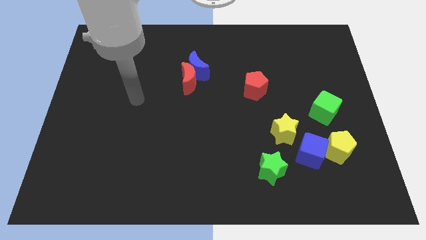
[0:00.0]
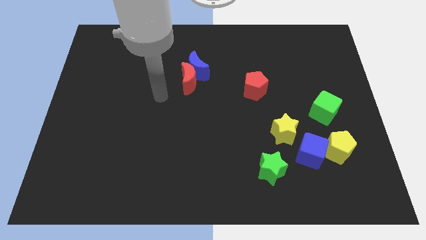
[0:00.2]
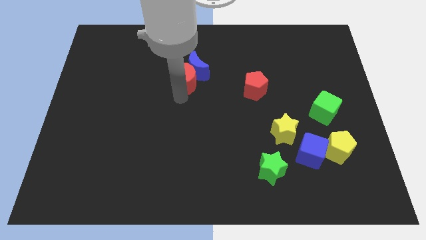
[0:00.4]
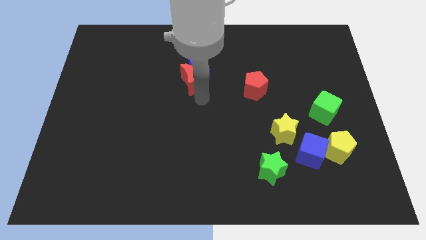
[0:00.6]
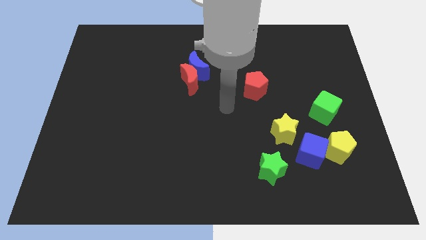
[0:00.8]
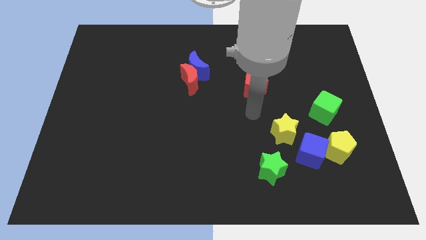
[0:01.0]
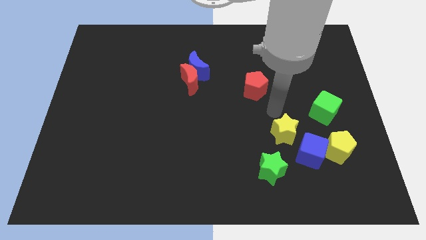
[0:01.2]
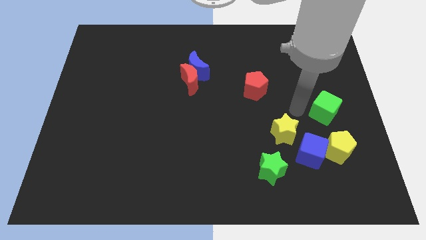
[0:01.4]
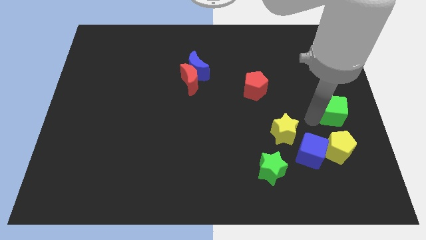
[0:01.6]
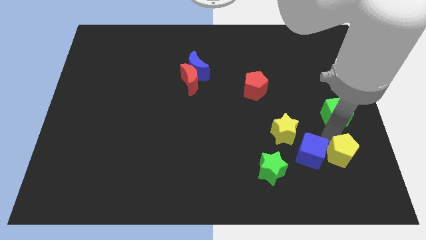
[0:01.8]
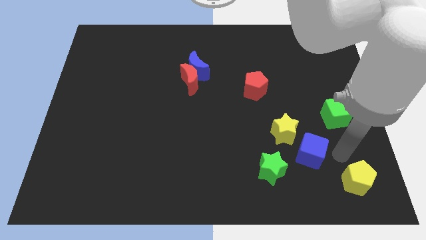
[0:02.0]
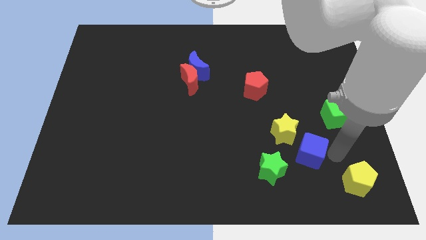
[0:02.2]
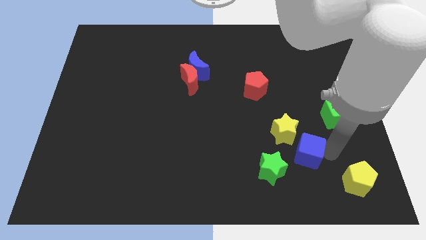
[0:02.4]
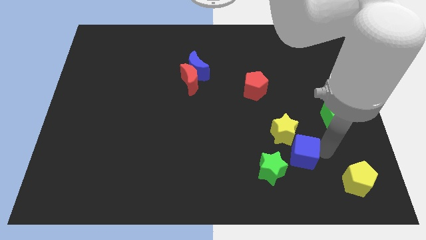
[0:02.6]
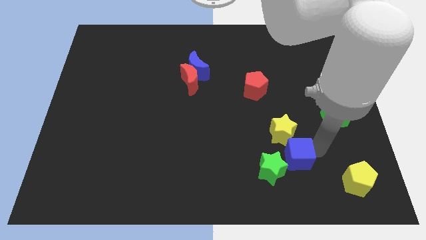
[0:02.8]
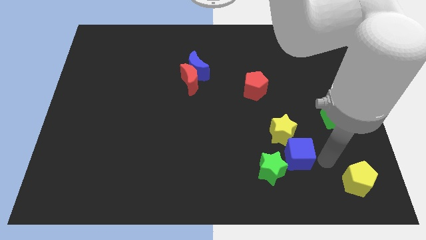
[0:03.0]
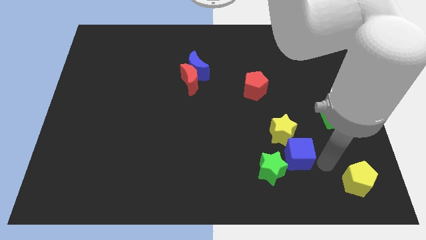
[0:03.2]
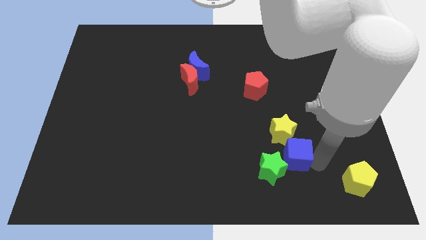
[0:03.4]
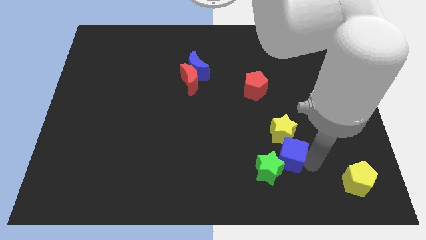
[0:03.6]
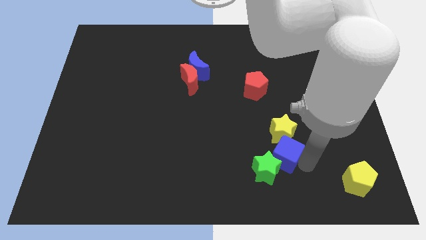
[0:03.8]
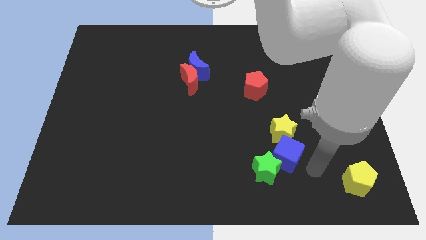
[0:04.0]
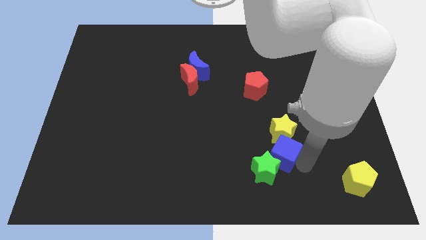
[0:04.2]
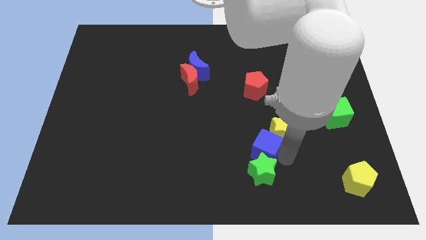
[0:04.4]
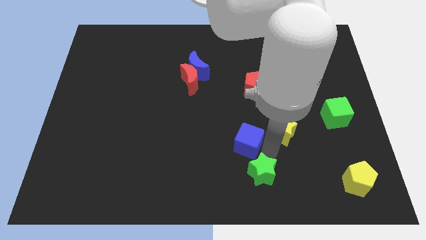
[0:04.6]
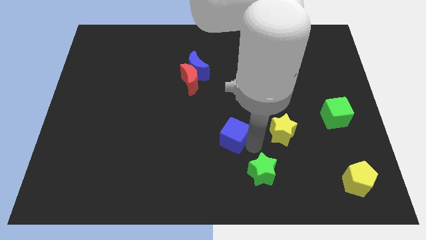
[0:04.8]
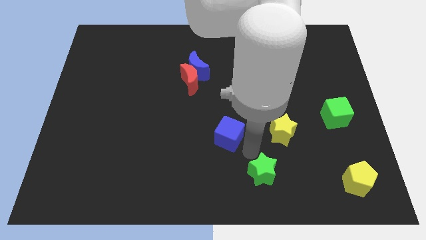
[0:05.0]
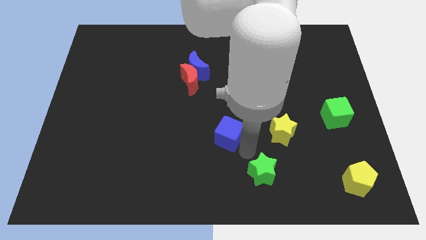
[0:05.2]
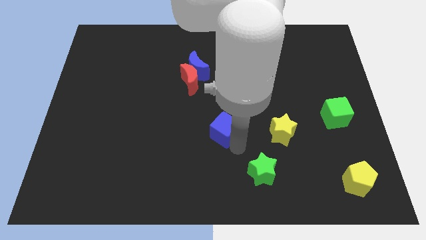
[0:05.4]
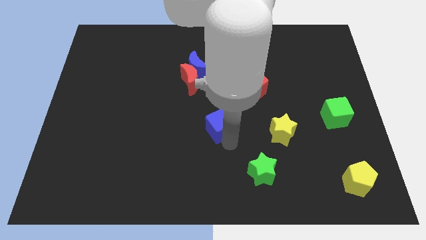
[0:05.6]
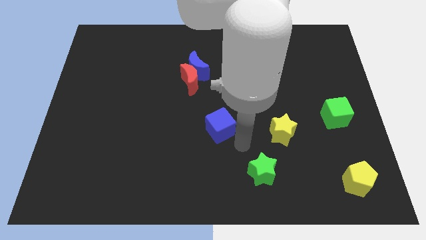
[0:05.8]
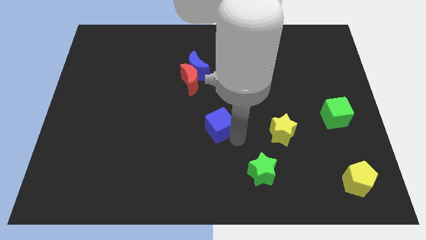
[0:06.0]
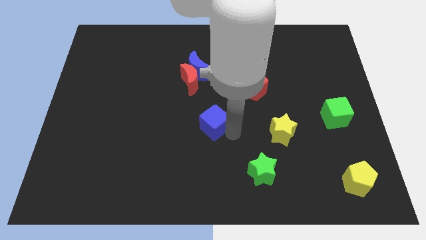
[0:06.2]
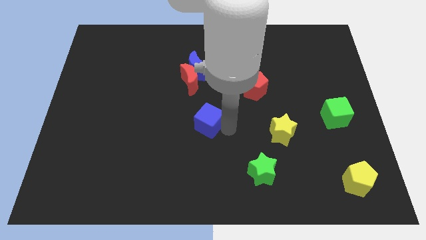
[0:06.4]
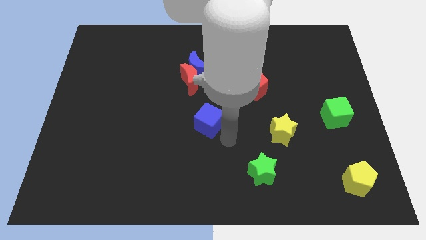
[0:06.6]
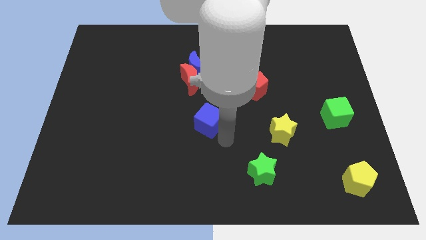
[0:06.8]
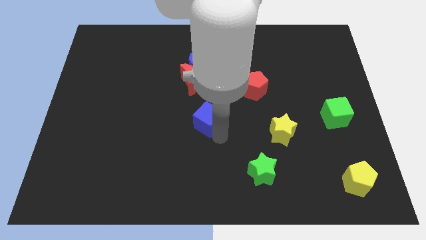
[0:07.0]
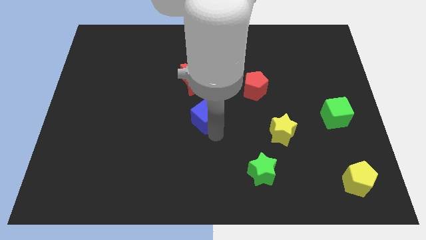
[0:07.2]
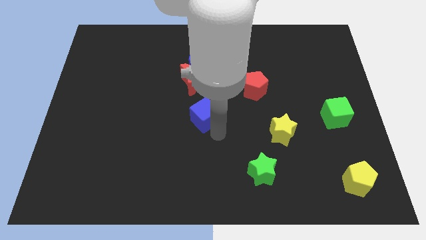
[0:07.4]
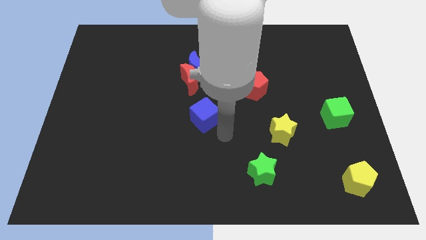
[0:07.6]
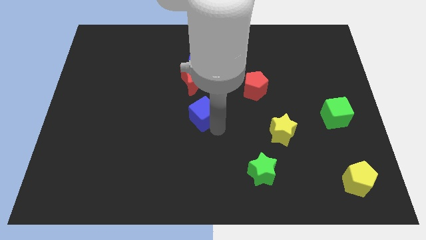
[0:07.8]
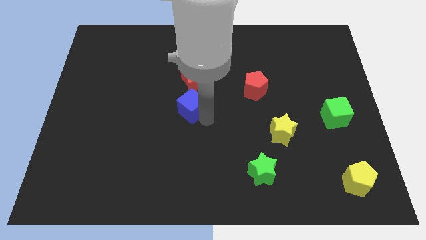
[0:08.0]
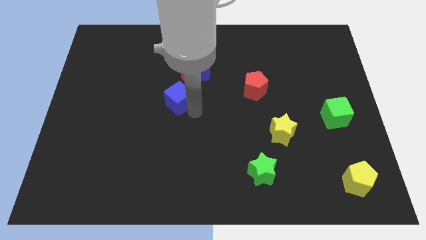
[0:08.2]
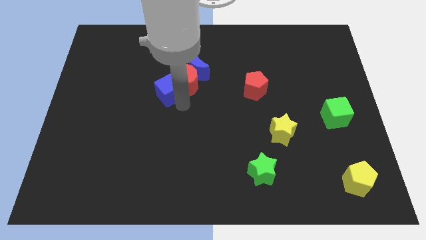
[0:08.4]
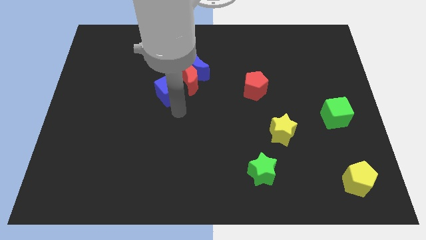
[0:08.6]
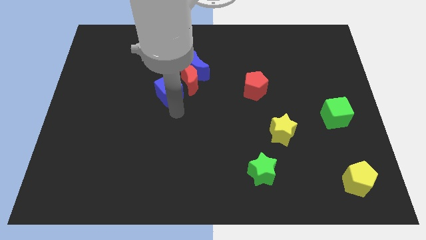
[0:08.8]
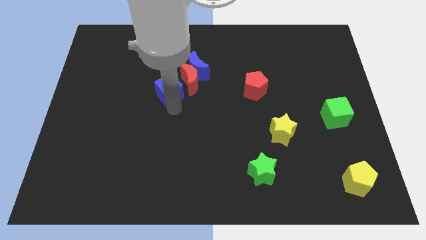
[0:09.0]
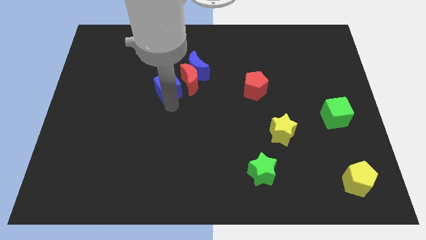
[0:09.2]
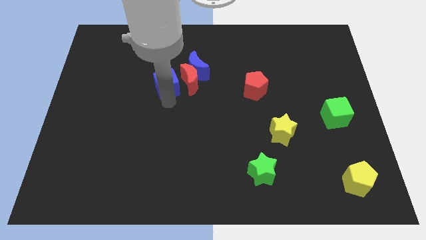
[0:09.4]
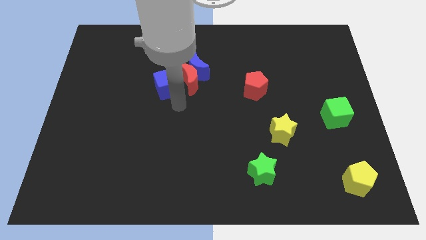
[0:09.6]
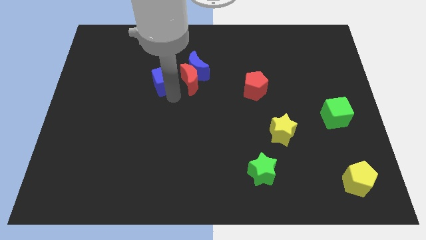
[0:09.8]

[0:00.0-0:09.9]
move the blue cube just left of the blue moon

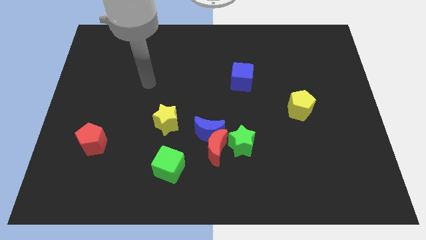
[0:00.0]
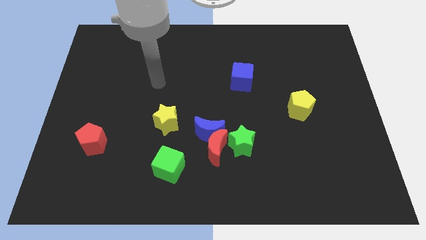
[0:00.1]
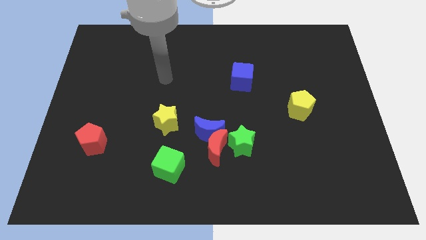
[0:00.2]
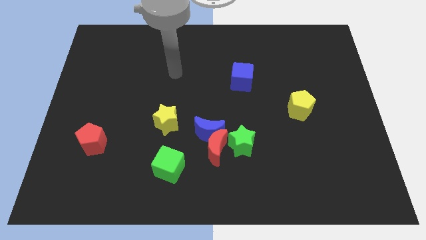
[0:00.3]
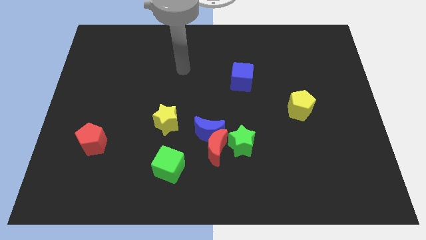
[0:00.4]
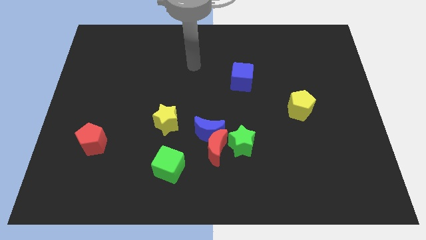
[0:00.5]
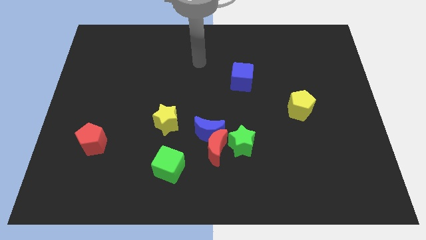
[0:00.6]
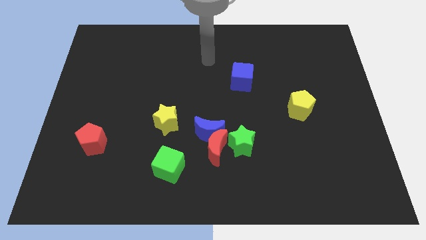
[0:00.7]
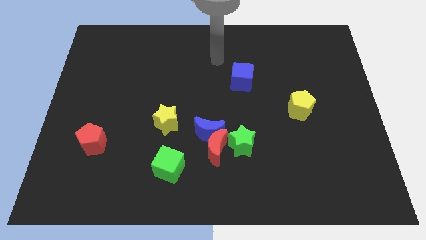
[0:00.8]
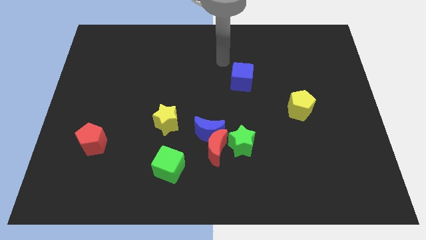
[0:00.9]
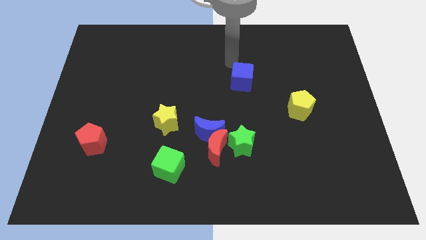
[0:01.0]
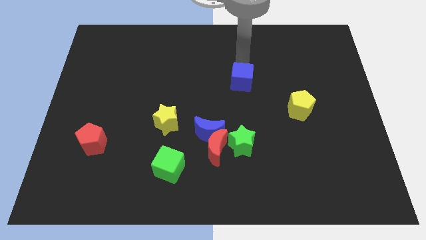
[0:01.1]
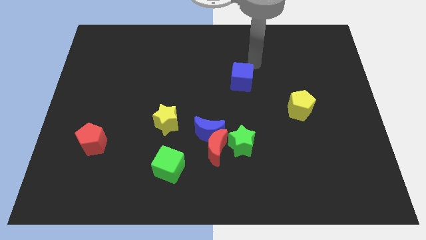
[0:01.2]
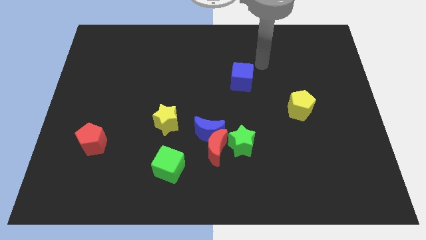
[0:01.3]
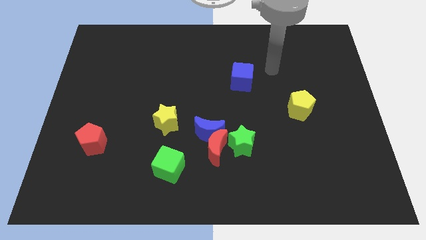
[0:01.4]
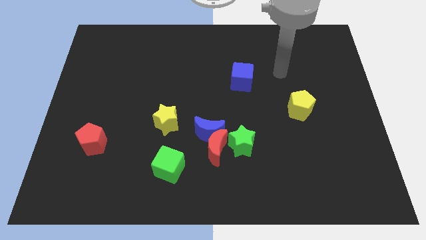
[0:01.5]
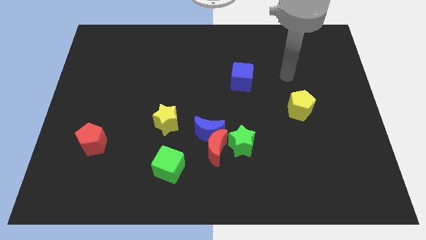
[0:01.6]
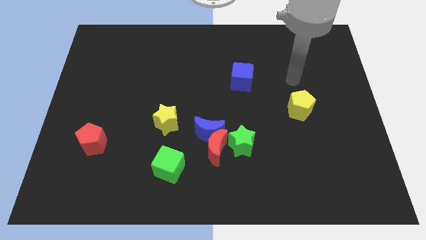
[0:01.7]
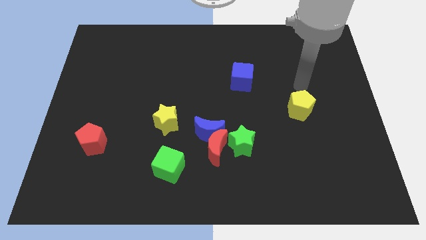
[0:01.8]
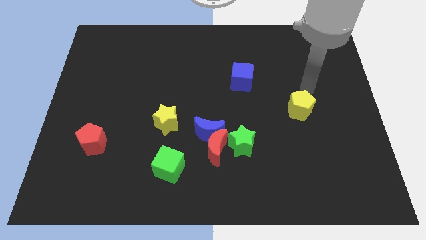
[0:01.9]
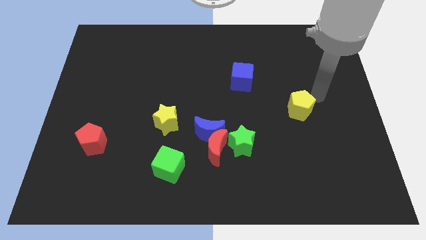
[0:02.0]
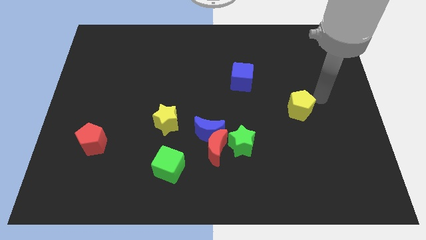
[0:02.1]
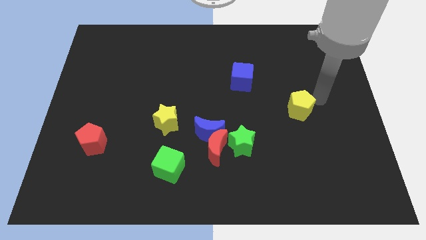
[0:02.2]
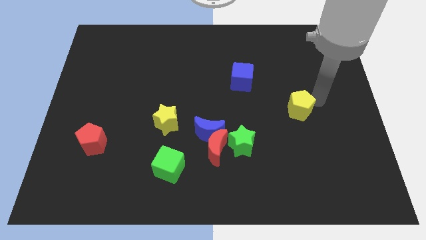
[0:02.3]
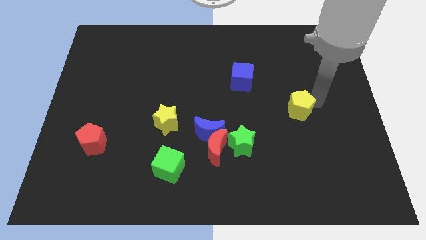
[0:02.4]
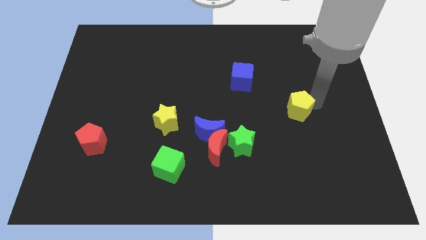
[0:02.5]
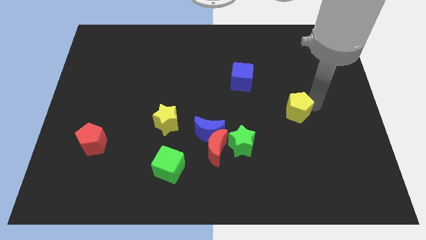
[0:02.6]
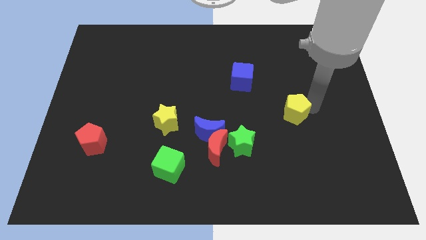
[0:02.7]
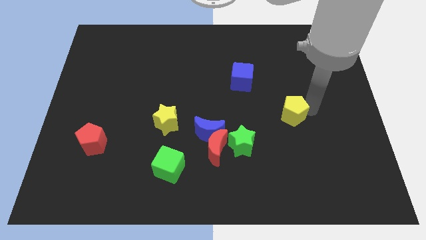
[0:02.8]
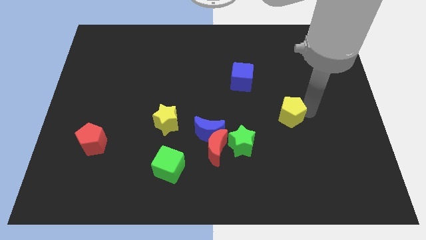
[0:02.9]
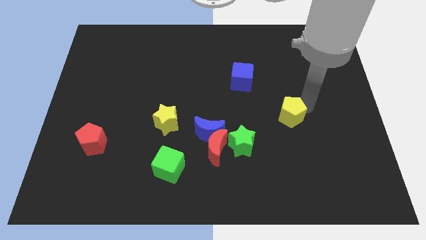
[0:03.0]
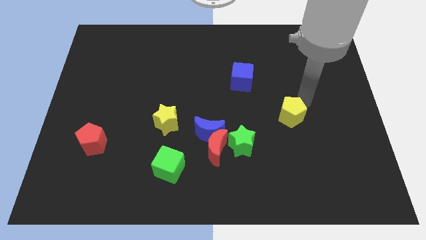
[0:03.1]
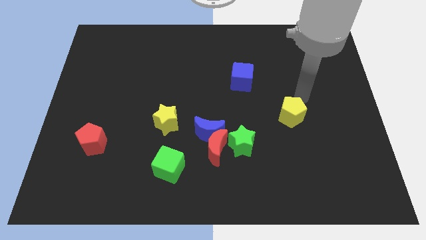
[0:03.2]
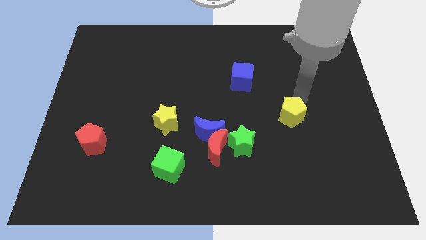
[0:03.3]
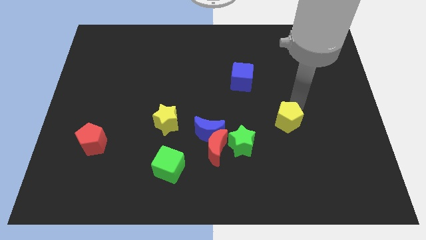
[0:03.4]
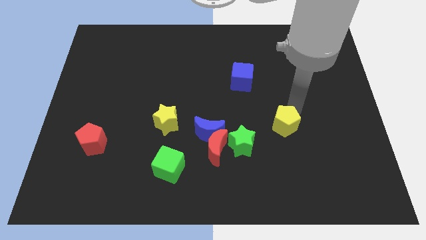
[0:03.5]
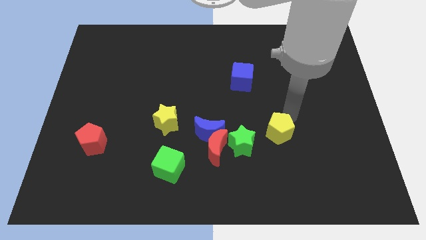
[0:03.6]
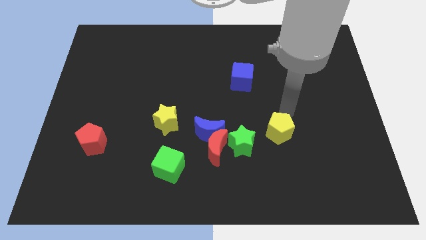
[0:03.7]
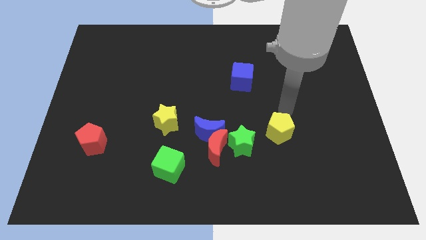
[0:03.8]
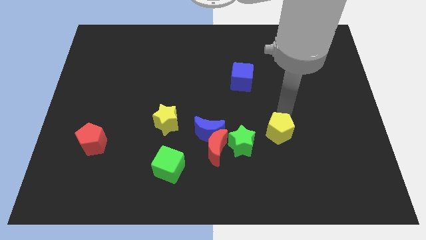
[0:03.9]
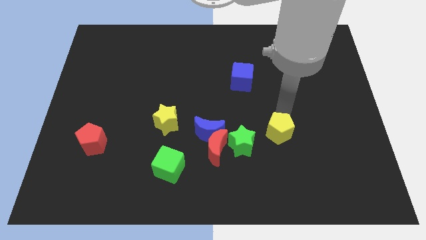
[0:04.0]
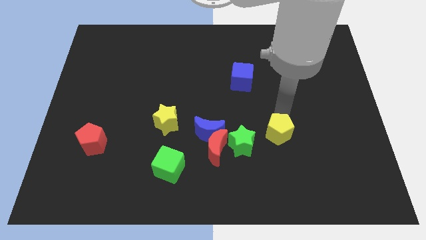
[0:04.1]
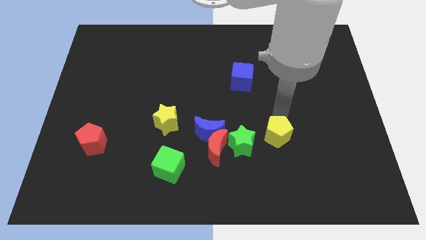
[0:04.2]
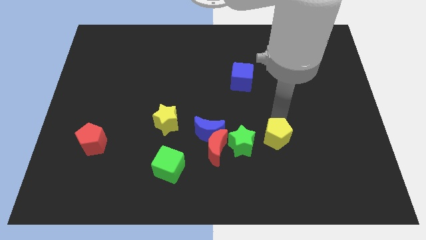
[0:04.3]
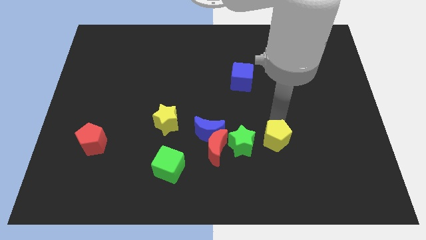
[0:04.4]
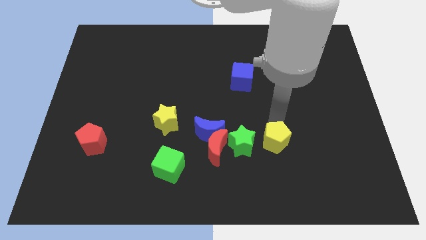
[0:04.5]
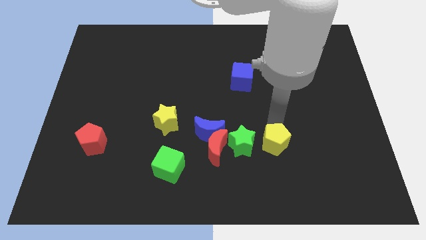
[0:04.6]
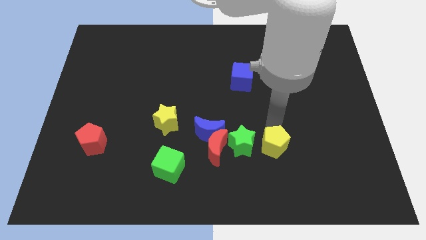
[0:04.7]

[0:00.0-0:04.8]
put the yellow pentagon to the bottom right side of the green star
